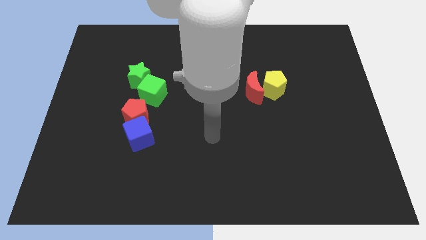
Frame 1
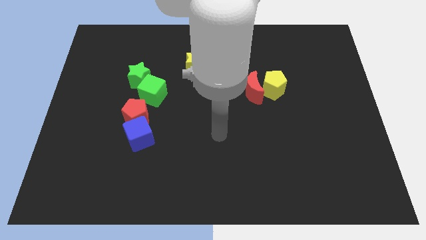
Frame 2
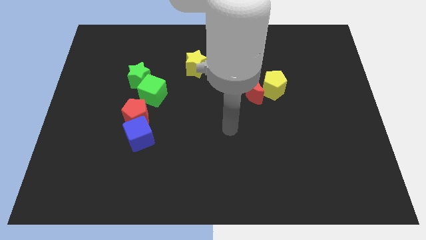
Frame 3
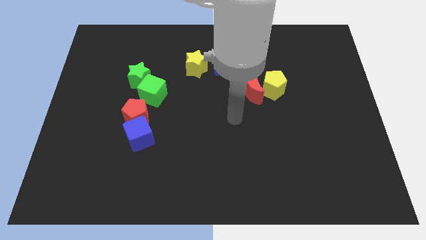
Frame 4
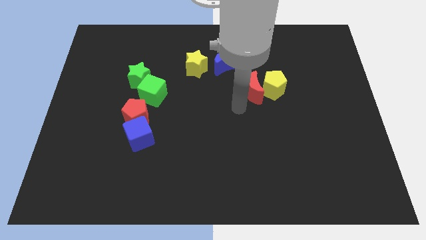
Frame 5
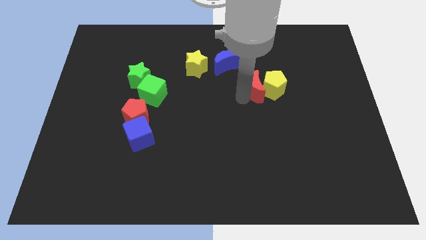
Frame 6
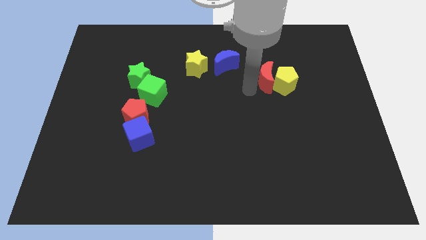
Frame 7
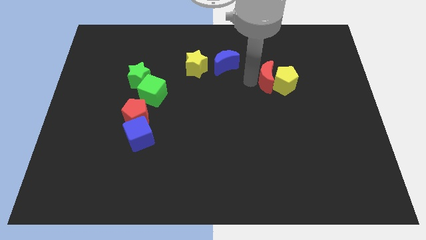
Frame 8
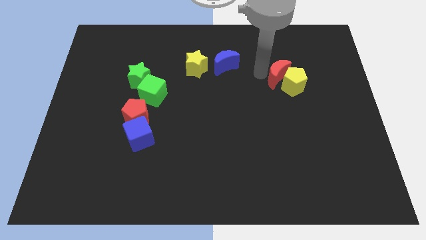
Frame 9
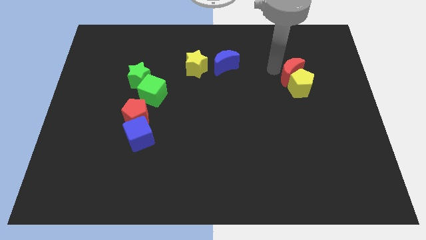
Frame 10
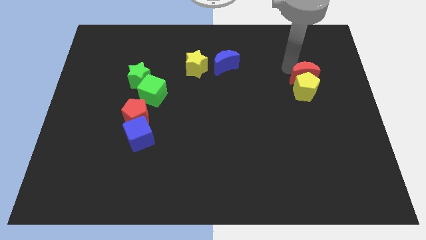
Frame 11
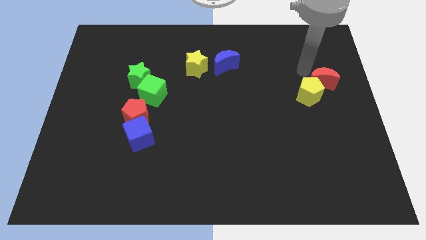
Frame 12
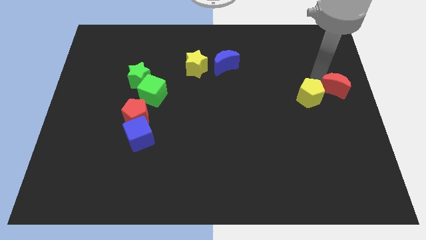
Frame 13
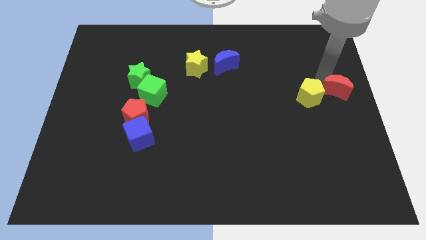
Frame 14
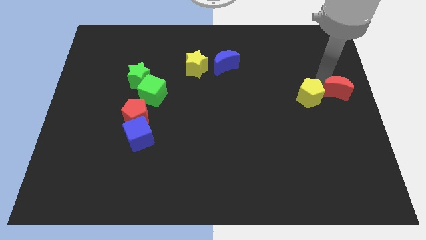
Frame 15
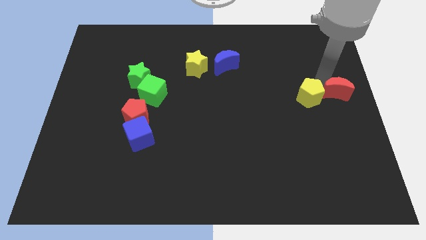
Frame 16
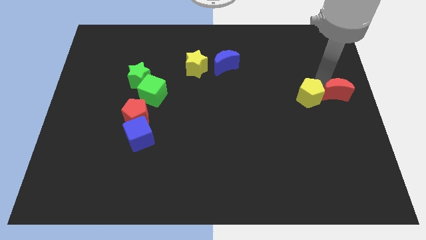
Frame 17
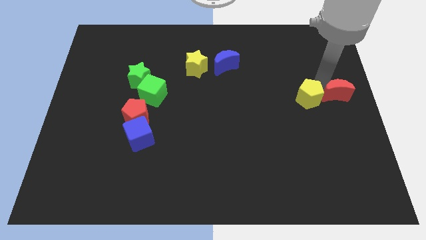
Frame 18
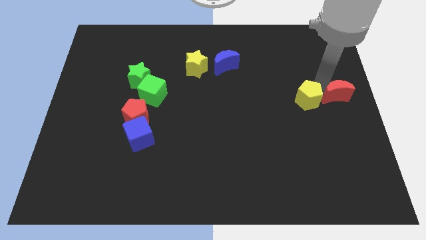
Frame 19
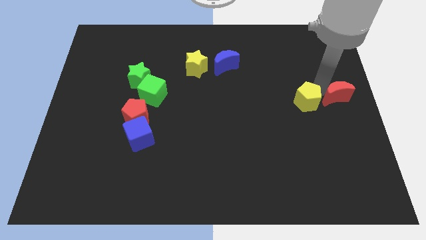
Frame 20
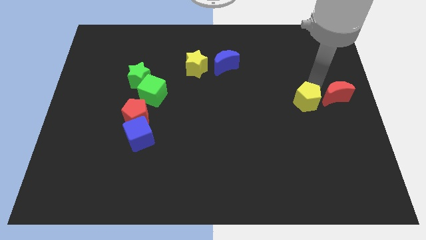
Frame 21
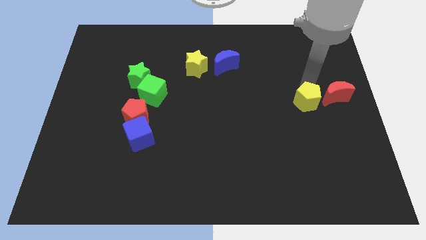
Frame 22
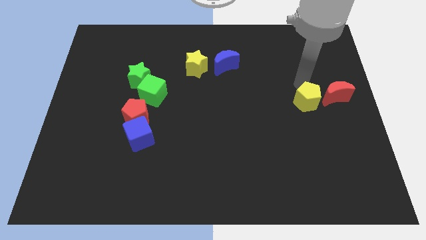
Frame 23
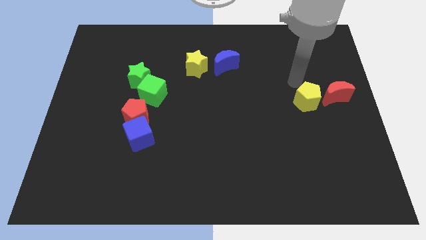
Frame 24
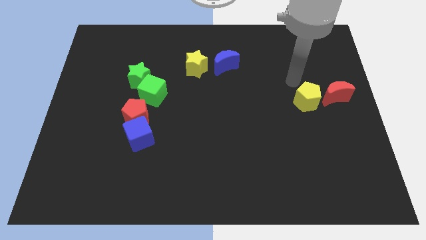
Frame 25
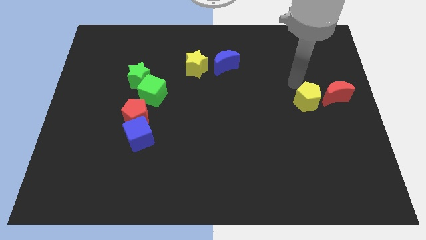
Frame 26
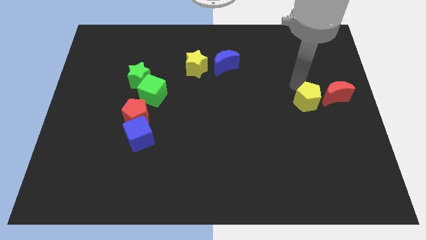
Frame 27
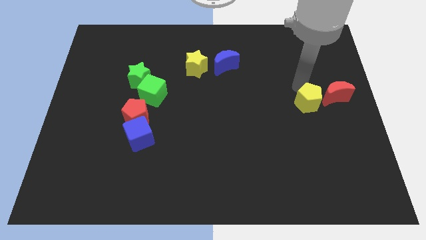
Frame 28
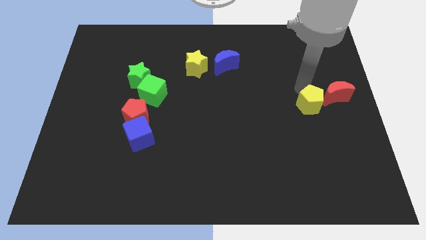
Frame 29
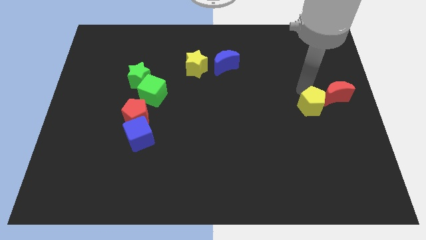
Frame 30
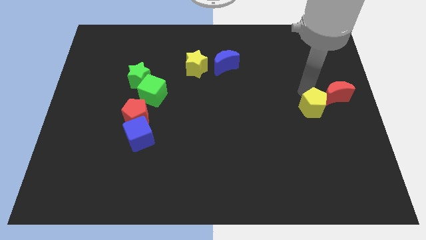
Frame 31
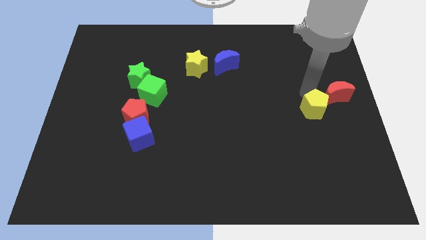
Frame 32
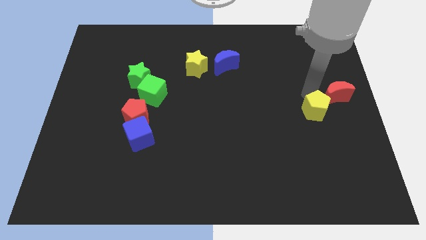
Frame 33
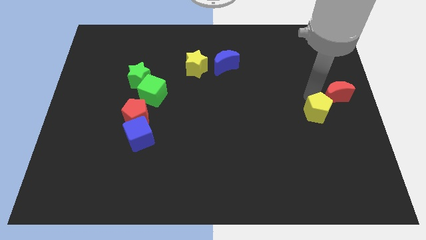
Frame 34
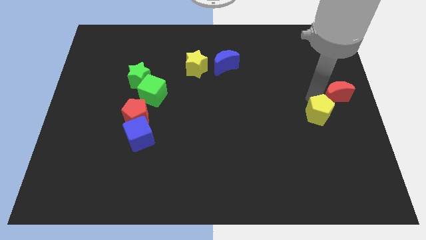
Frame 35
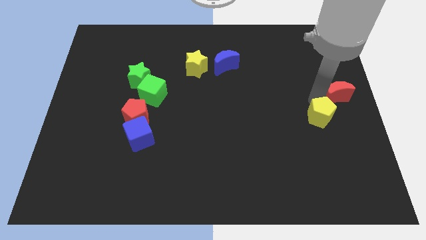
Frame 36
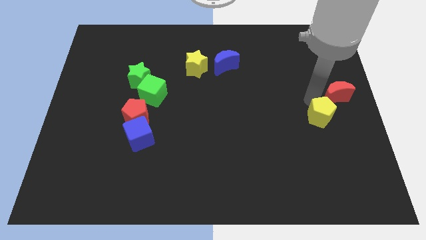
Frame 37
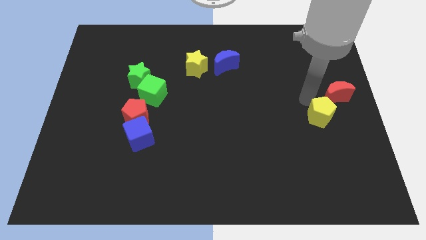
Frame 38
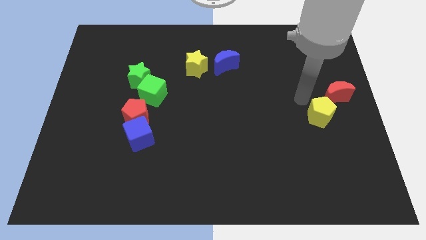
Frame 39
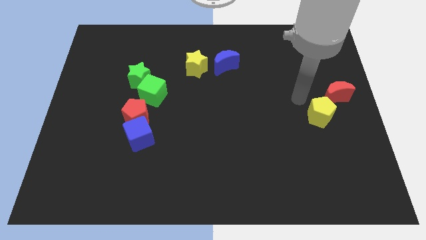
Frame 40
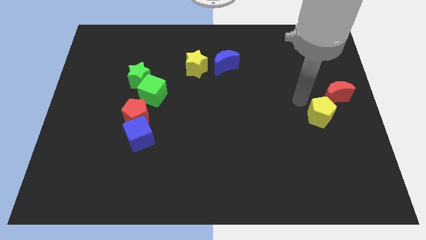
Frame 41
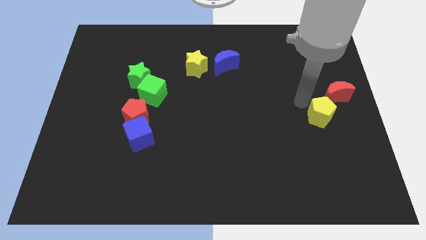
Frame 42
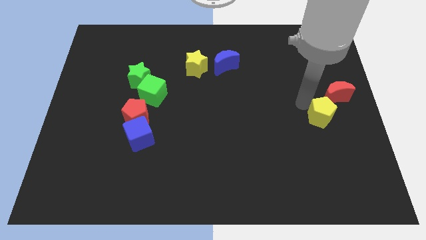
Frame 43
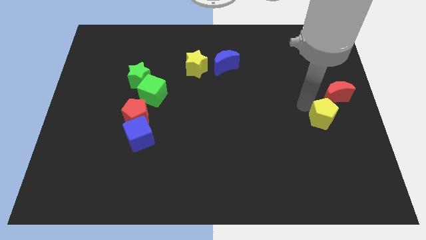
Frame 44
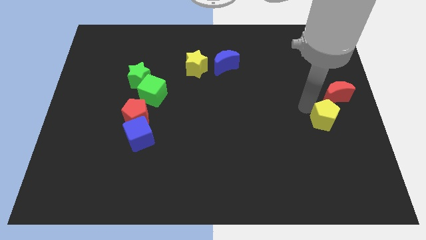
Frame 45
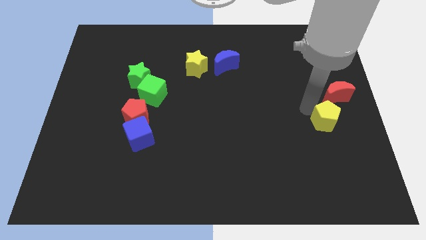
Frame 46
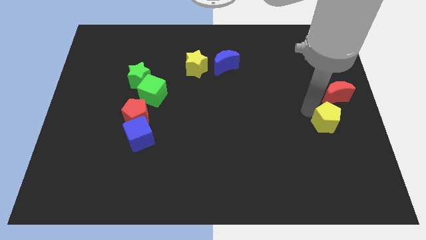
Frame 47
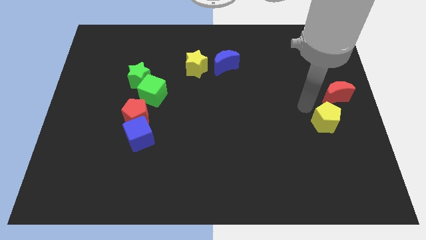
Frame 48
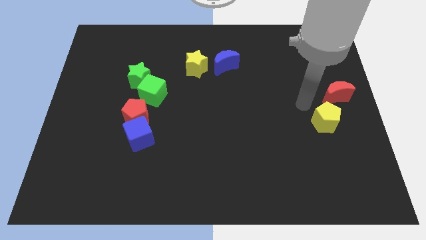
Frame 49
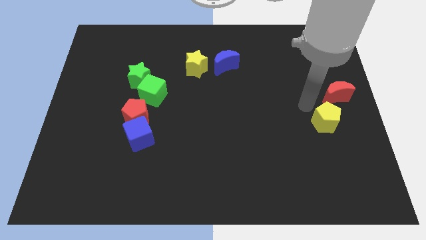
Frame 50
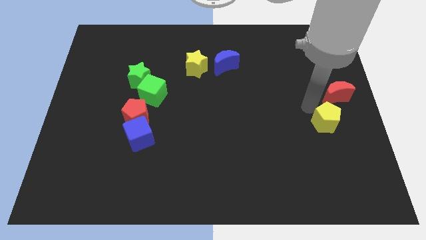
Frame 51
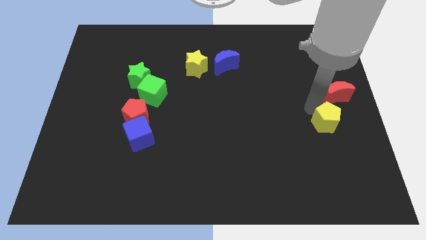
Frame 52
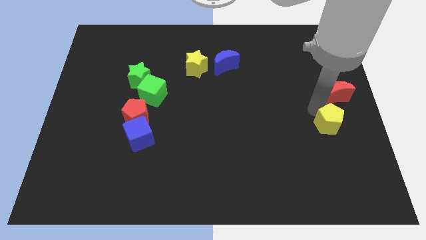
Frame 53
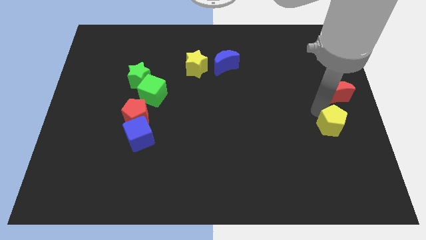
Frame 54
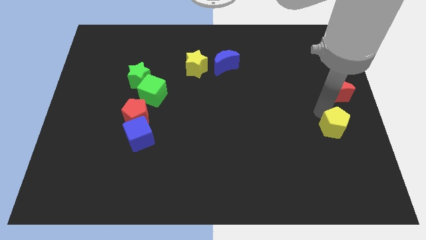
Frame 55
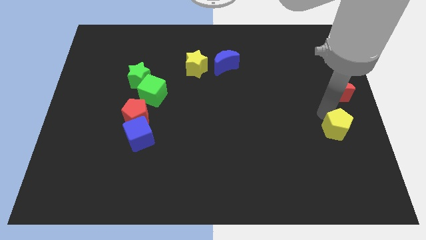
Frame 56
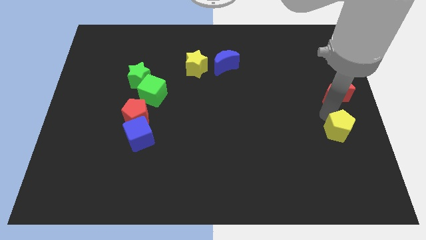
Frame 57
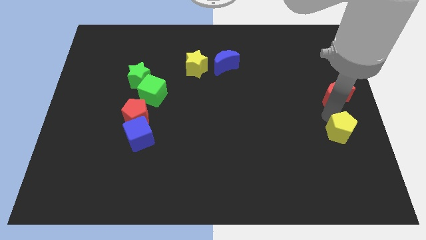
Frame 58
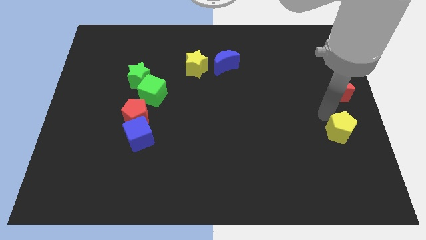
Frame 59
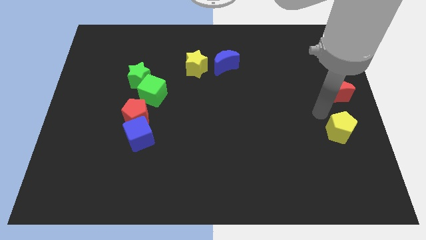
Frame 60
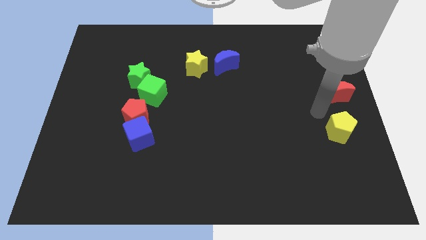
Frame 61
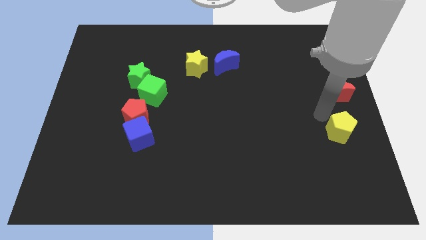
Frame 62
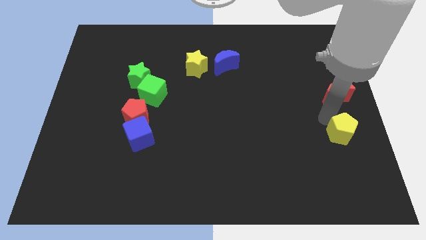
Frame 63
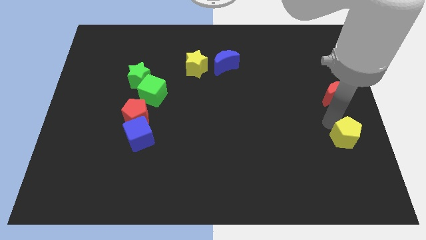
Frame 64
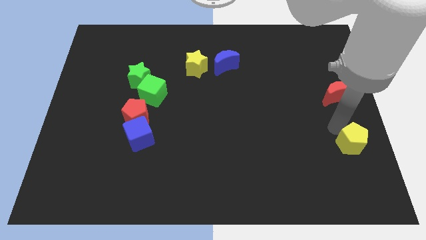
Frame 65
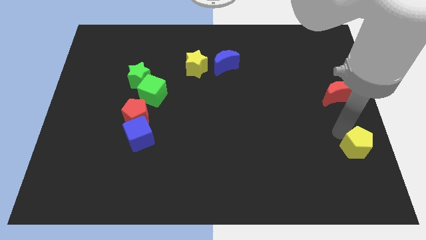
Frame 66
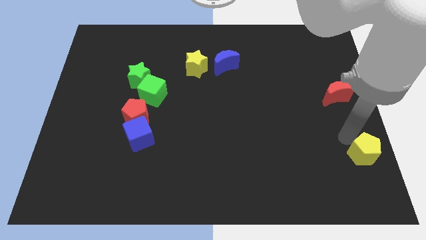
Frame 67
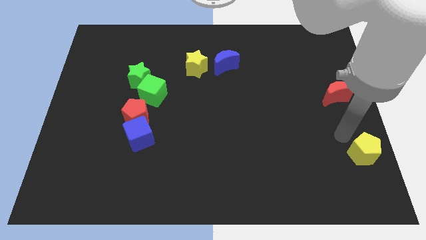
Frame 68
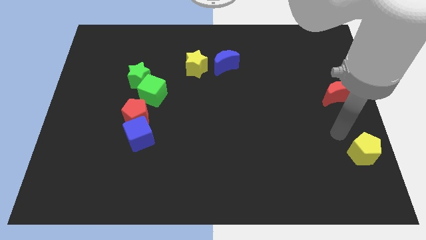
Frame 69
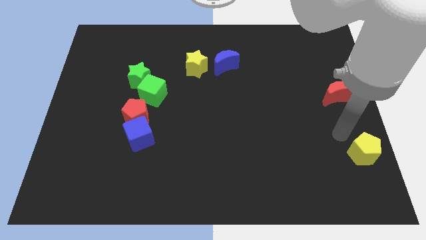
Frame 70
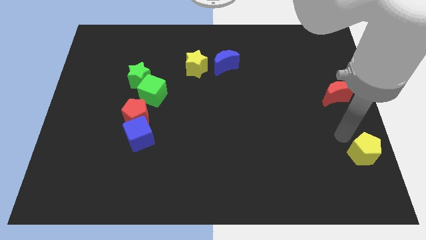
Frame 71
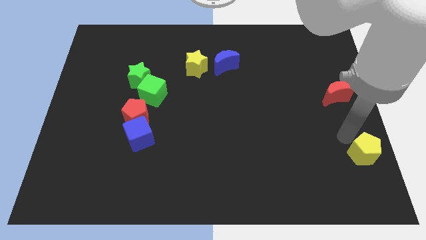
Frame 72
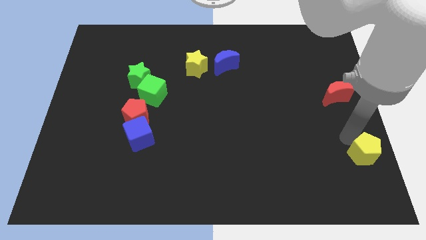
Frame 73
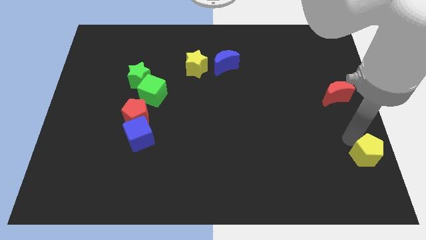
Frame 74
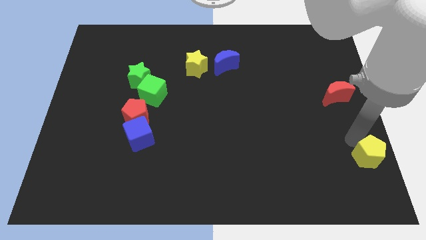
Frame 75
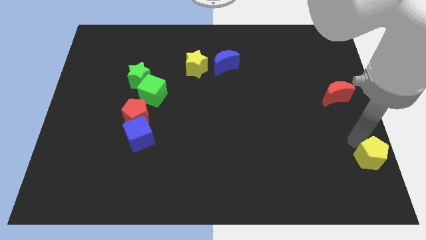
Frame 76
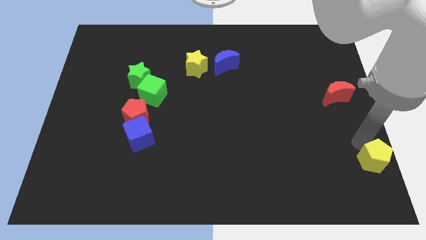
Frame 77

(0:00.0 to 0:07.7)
push the yellow pentagon to the lower right corner

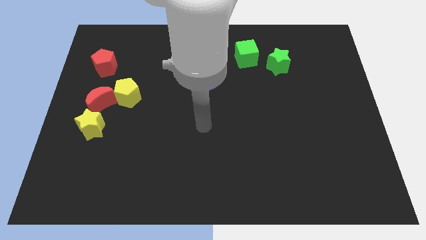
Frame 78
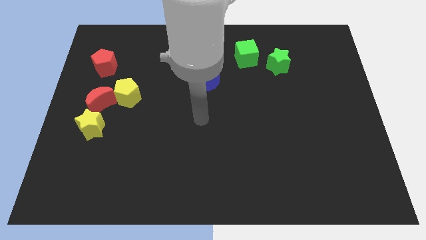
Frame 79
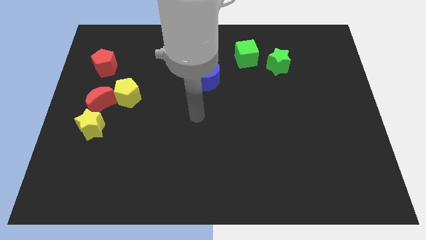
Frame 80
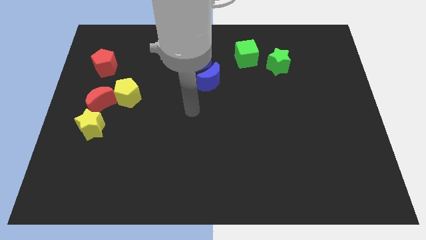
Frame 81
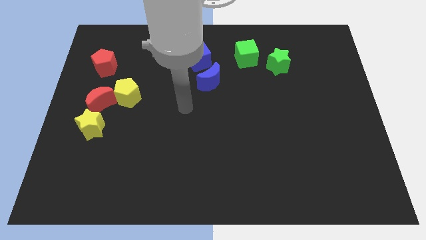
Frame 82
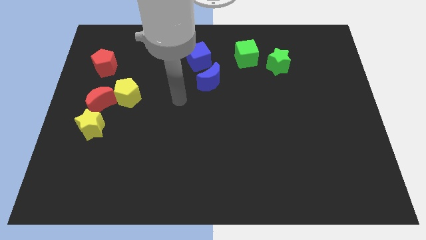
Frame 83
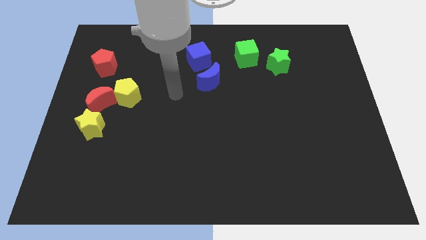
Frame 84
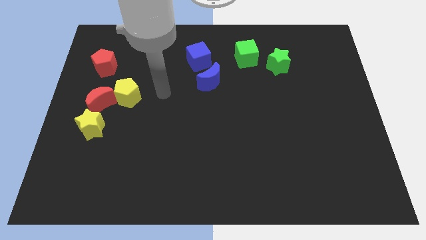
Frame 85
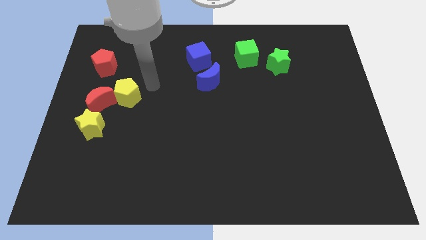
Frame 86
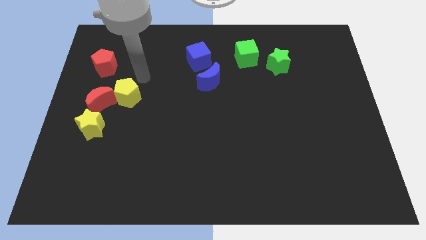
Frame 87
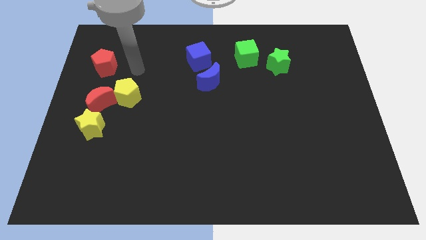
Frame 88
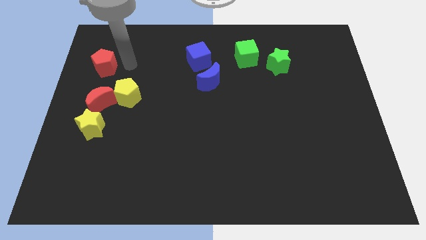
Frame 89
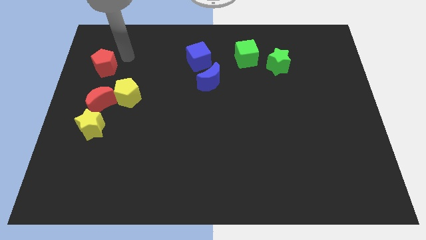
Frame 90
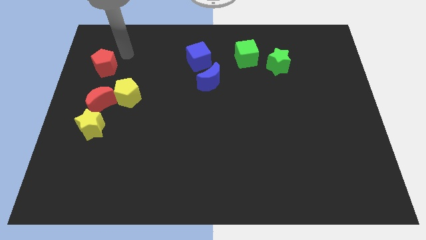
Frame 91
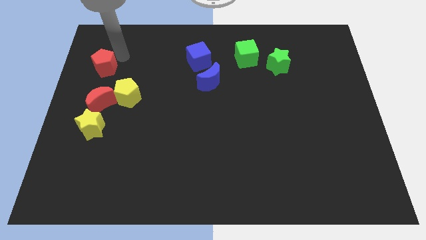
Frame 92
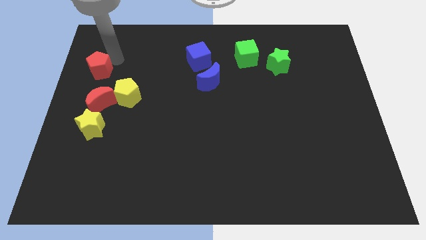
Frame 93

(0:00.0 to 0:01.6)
move the red pentagon to the left side
